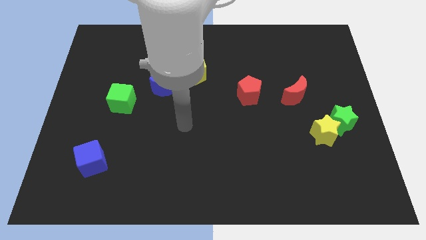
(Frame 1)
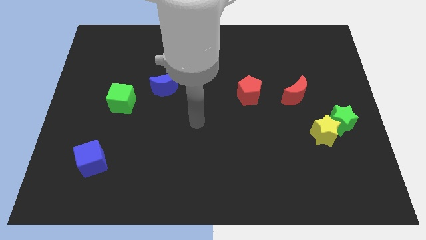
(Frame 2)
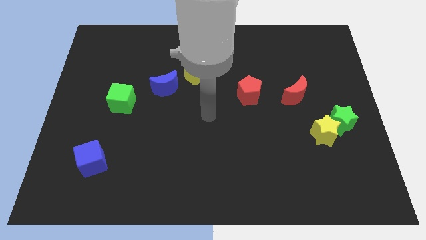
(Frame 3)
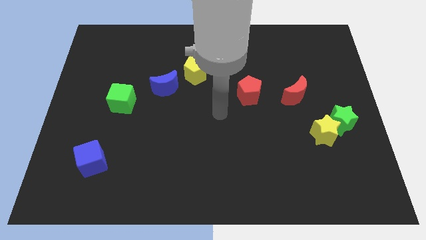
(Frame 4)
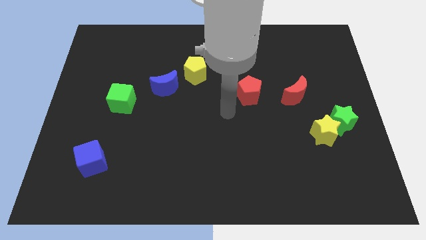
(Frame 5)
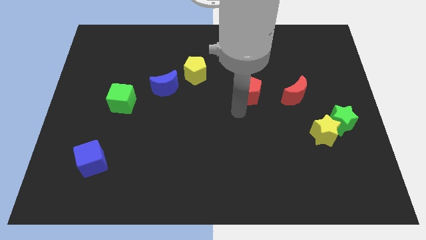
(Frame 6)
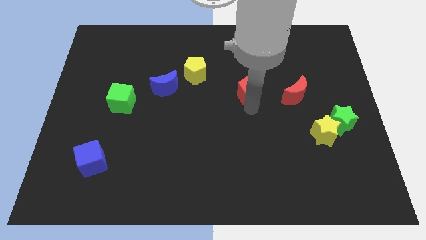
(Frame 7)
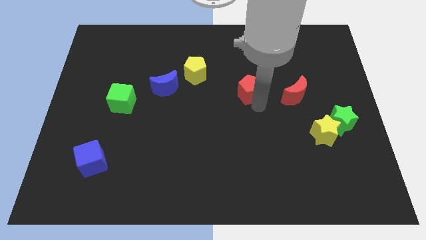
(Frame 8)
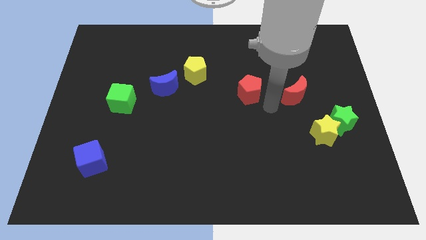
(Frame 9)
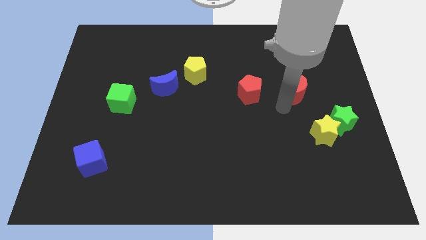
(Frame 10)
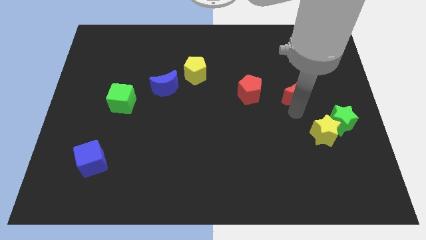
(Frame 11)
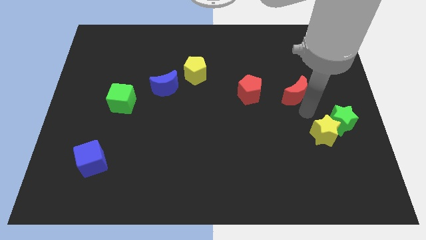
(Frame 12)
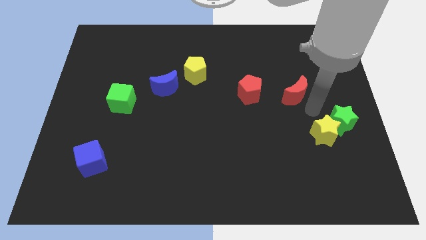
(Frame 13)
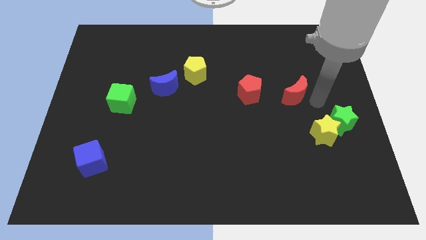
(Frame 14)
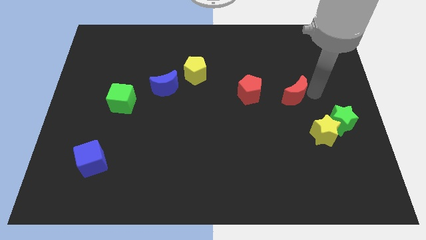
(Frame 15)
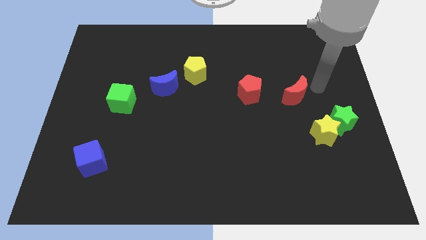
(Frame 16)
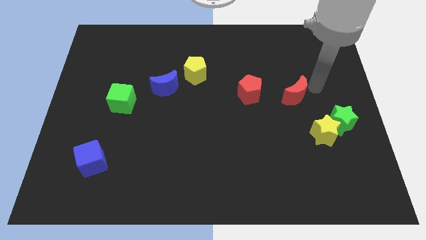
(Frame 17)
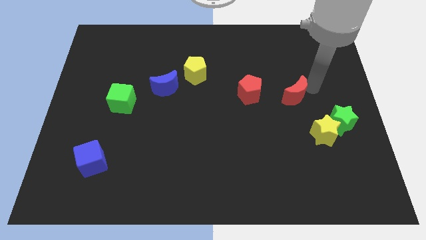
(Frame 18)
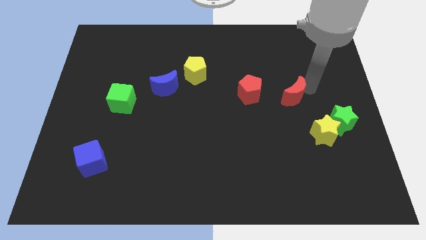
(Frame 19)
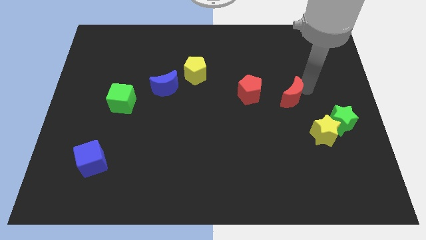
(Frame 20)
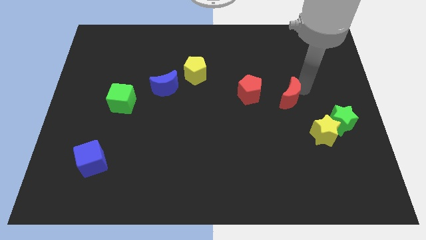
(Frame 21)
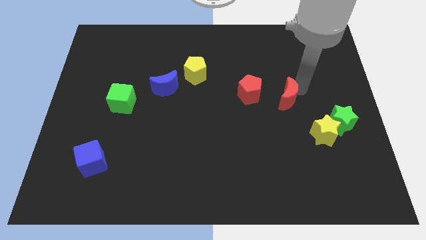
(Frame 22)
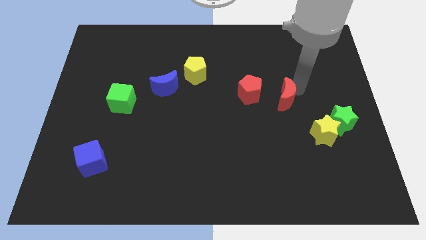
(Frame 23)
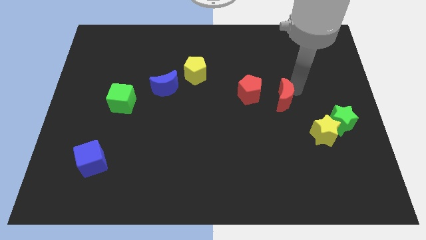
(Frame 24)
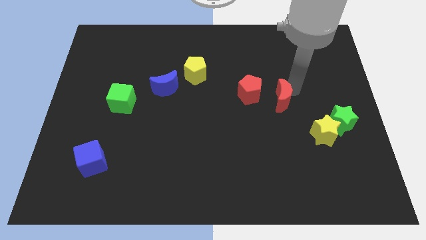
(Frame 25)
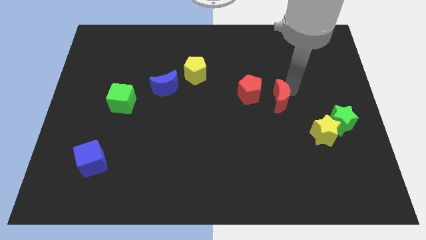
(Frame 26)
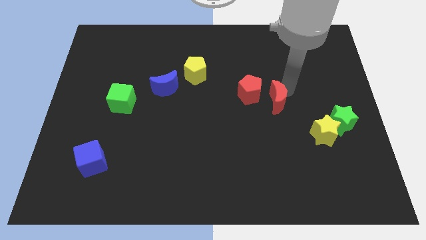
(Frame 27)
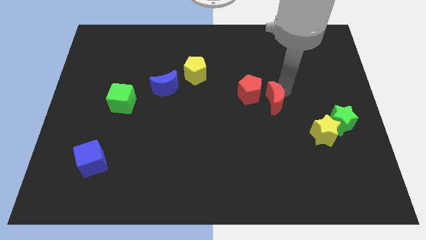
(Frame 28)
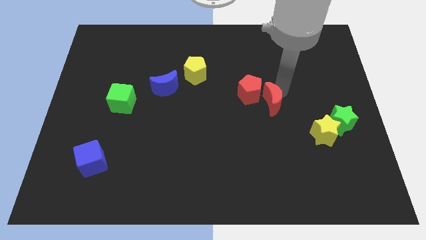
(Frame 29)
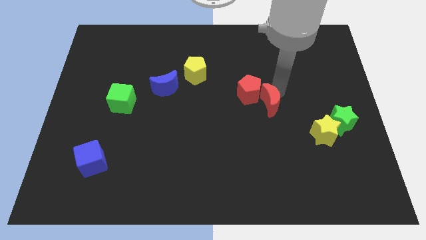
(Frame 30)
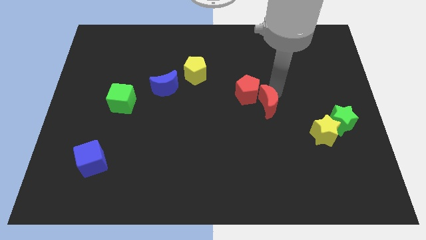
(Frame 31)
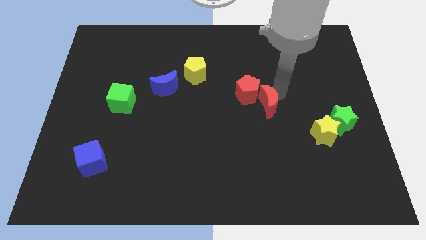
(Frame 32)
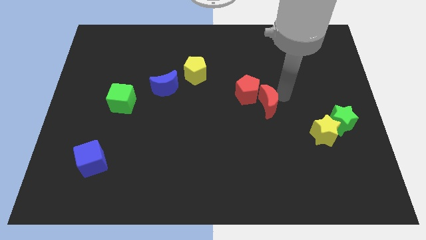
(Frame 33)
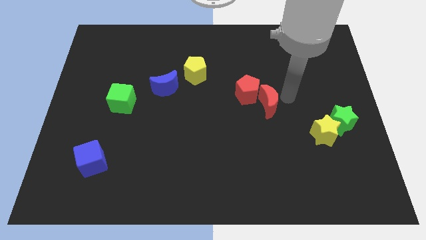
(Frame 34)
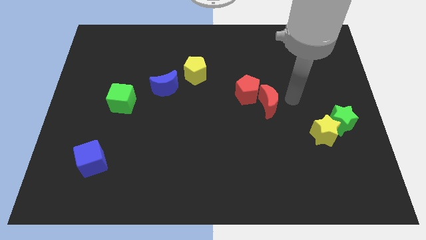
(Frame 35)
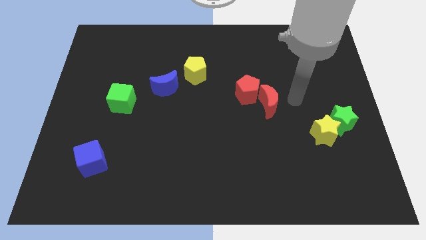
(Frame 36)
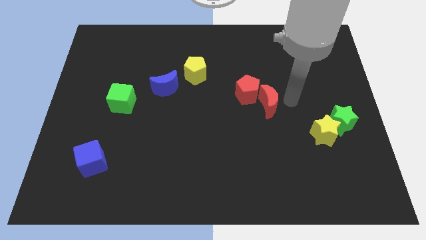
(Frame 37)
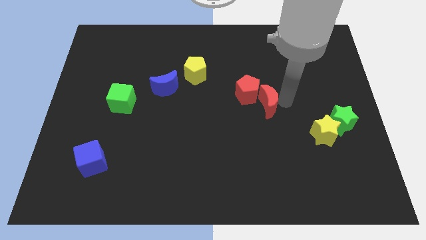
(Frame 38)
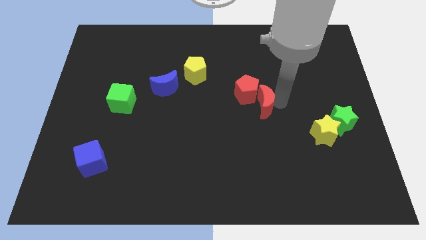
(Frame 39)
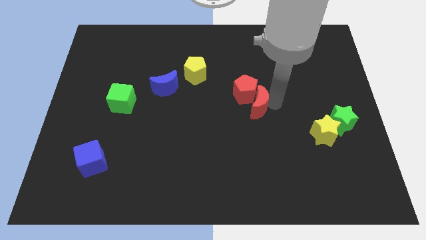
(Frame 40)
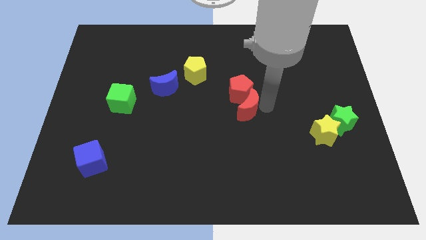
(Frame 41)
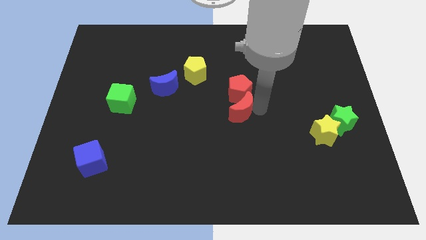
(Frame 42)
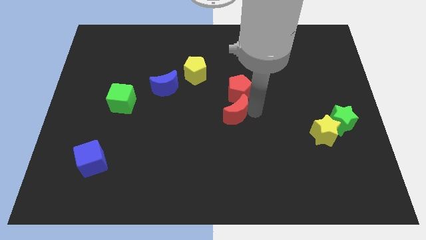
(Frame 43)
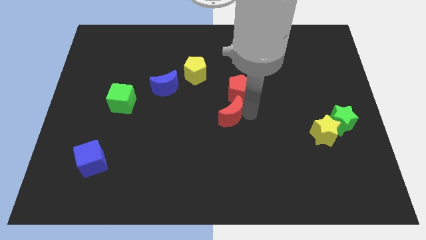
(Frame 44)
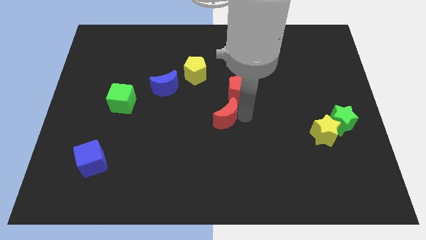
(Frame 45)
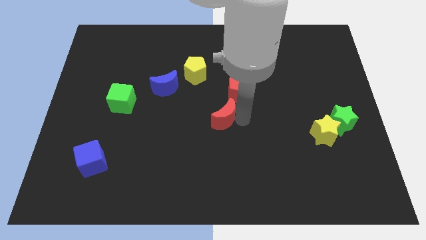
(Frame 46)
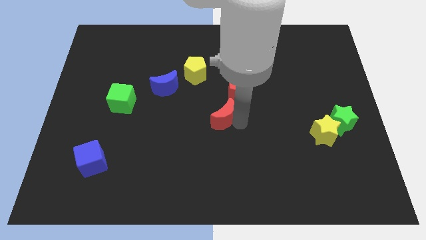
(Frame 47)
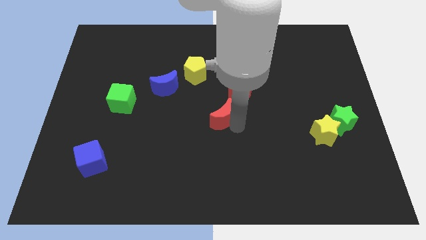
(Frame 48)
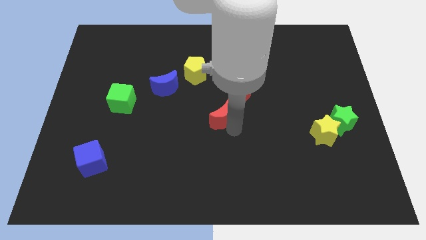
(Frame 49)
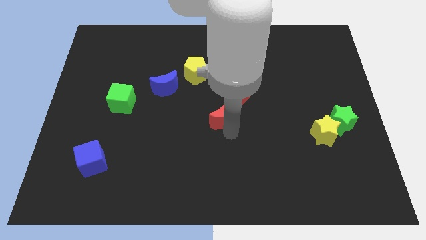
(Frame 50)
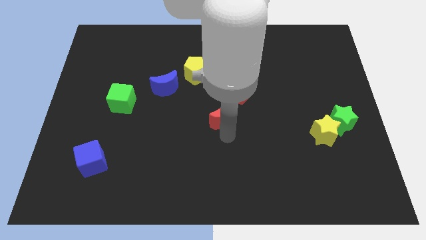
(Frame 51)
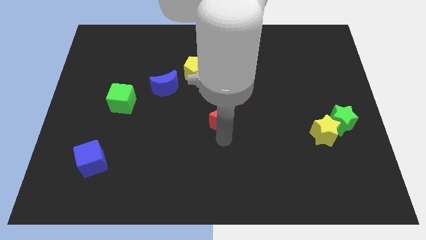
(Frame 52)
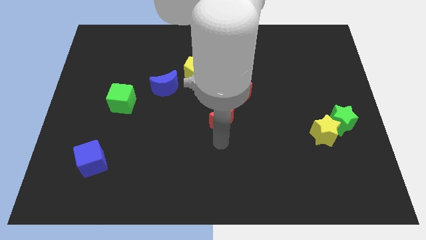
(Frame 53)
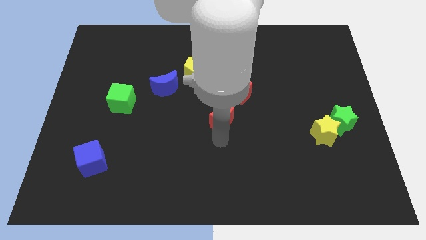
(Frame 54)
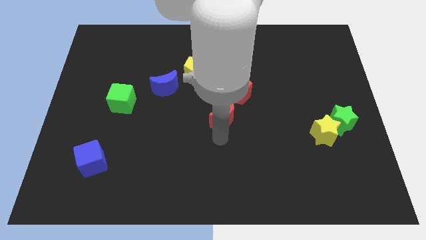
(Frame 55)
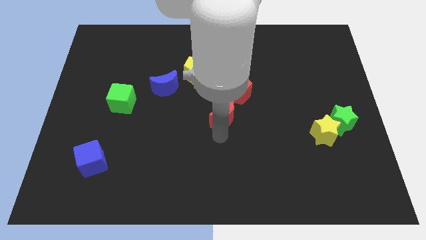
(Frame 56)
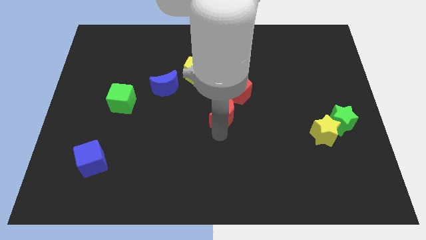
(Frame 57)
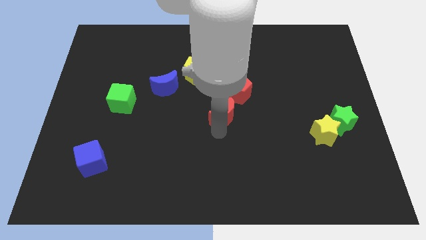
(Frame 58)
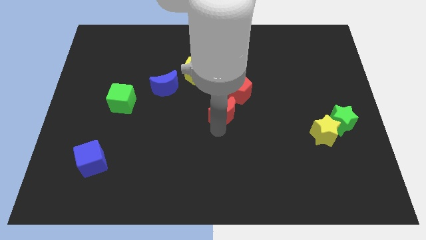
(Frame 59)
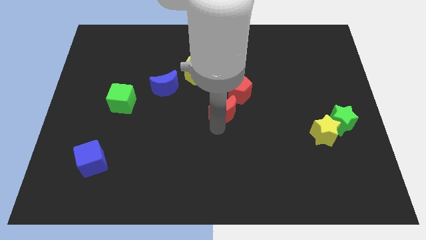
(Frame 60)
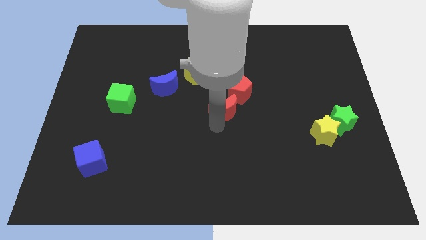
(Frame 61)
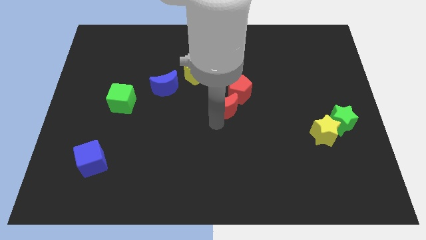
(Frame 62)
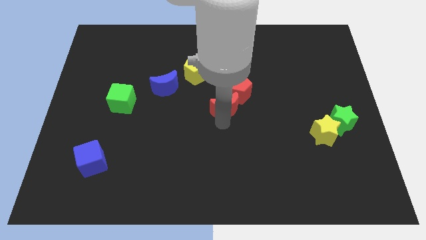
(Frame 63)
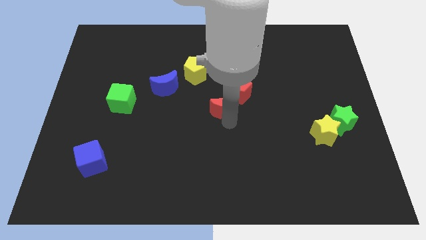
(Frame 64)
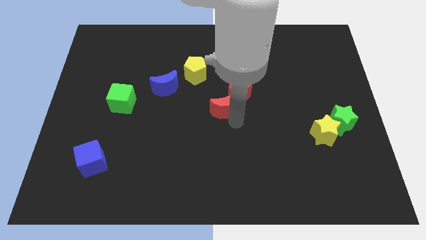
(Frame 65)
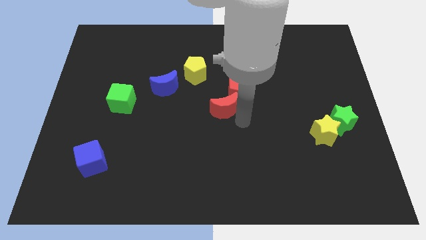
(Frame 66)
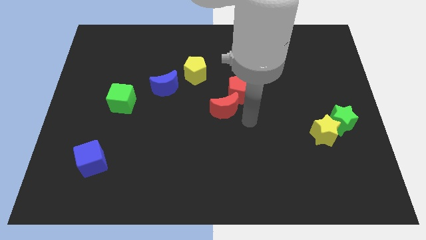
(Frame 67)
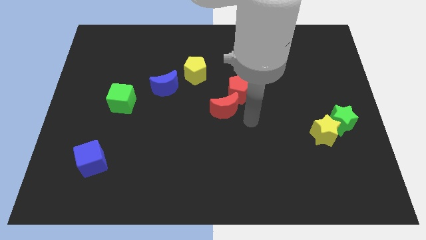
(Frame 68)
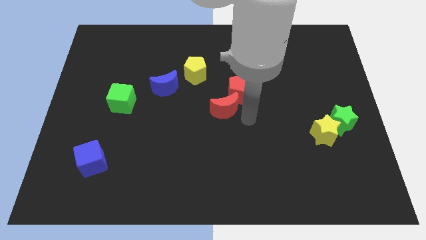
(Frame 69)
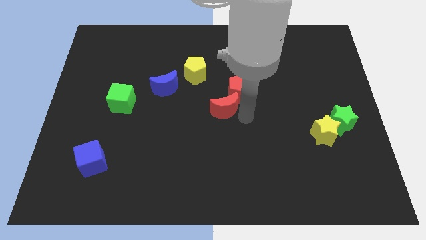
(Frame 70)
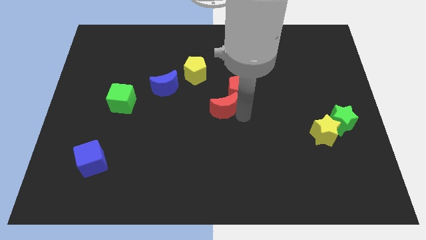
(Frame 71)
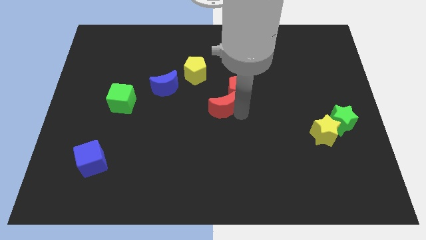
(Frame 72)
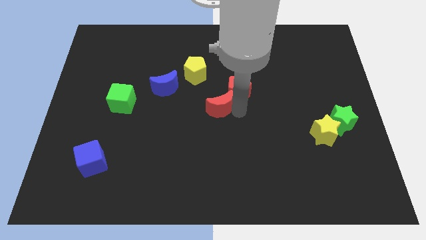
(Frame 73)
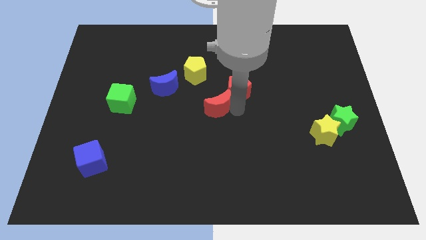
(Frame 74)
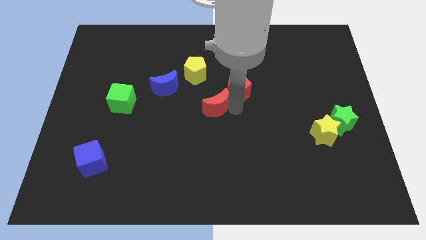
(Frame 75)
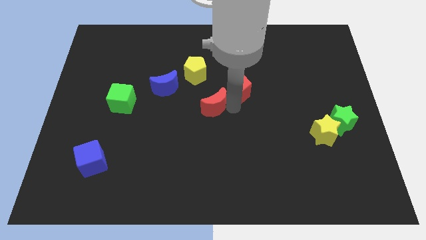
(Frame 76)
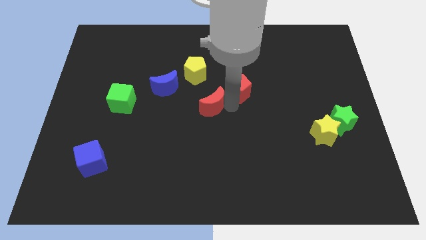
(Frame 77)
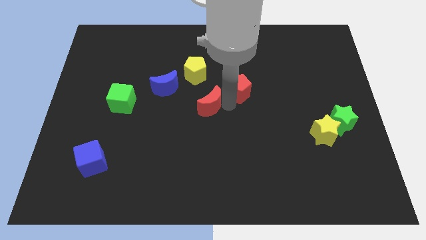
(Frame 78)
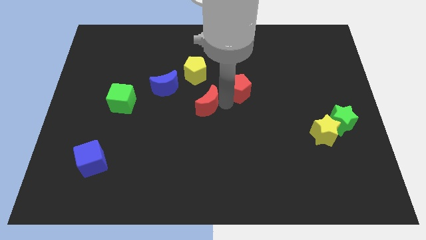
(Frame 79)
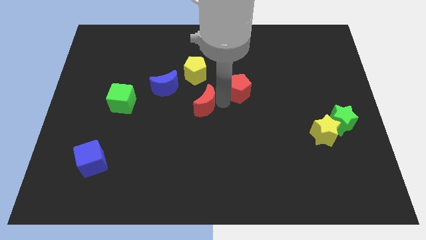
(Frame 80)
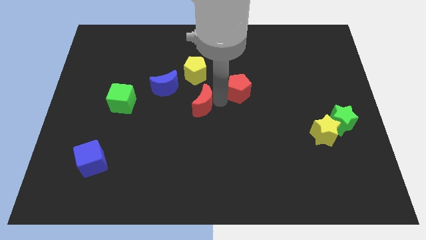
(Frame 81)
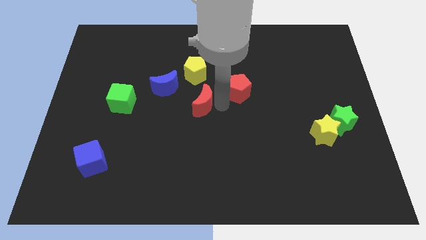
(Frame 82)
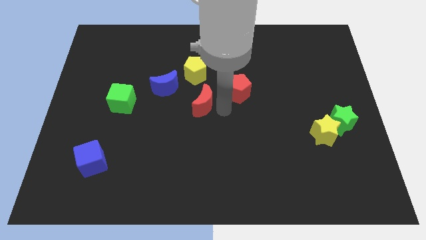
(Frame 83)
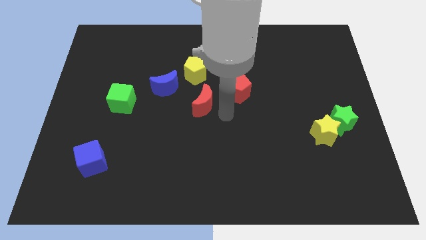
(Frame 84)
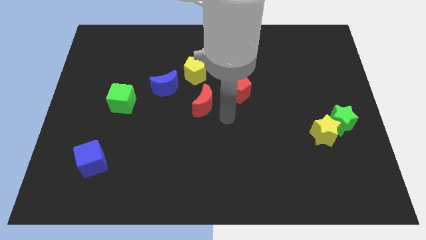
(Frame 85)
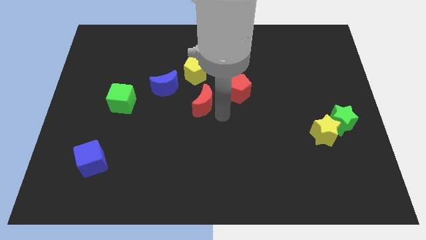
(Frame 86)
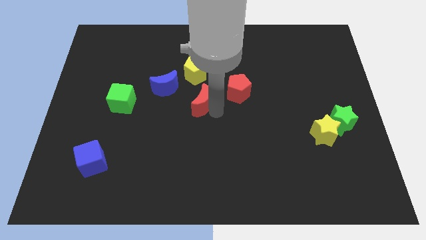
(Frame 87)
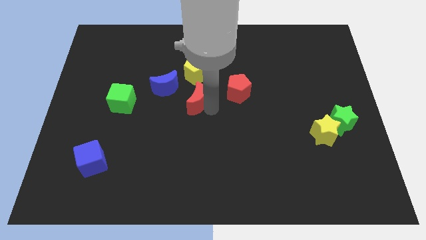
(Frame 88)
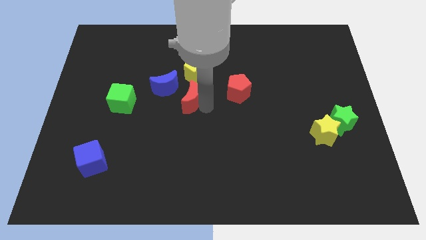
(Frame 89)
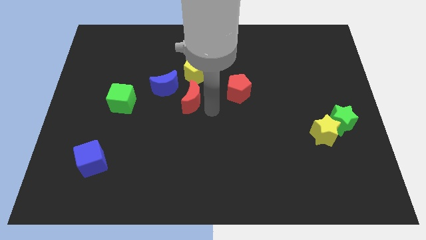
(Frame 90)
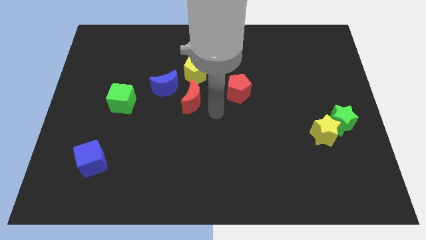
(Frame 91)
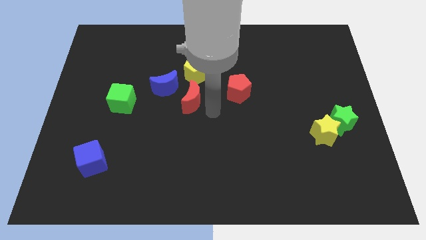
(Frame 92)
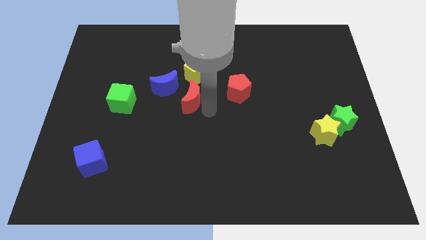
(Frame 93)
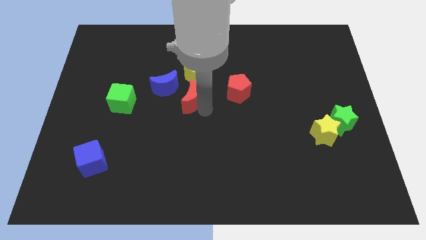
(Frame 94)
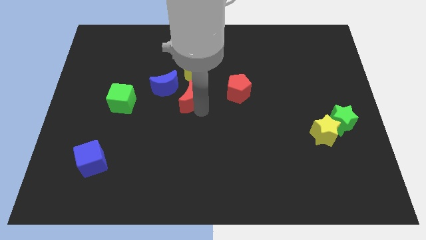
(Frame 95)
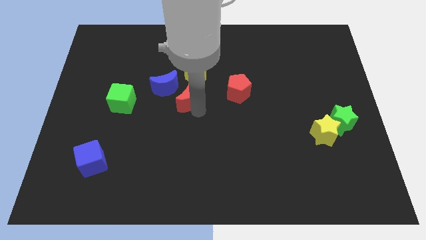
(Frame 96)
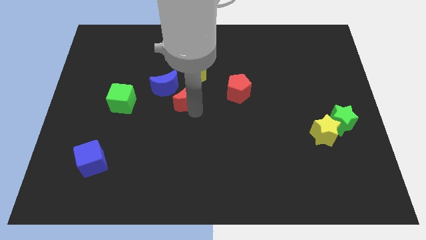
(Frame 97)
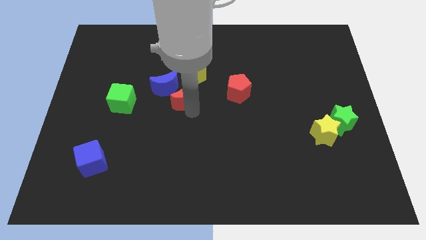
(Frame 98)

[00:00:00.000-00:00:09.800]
put the red moon next to the blue moon
